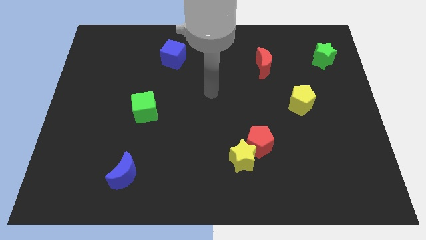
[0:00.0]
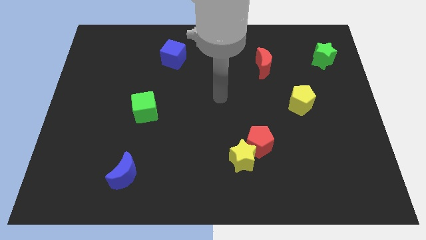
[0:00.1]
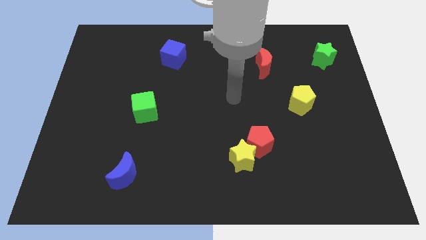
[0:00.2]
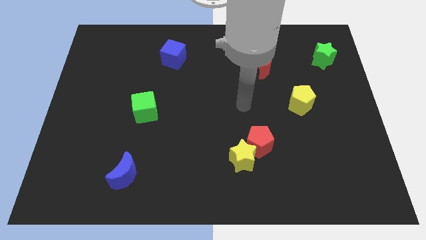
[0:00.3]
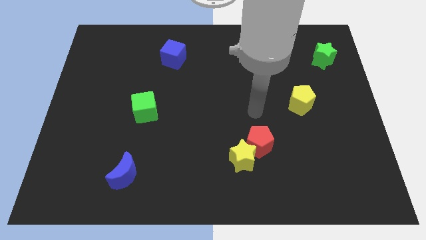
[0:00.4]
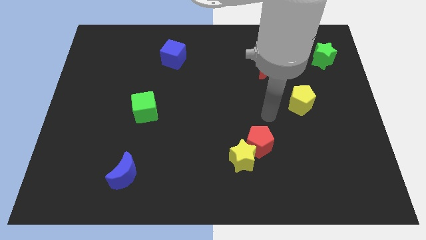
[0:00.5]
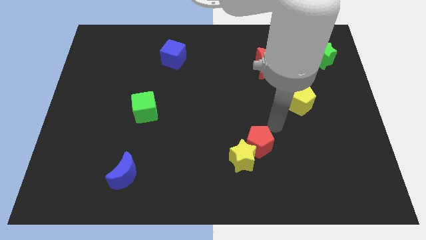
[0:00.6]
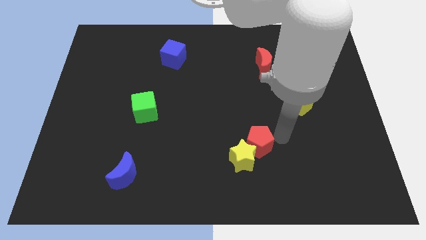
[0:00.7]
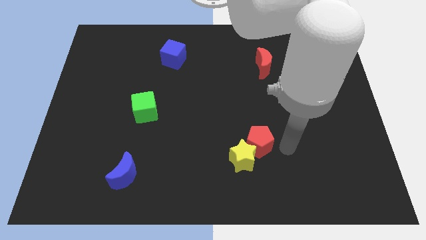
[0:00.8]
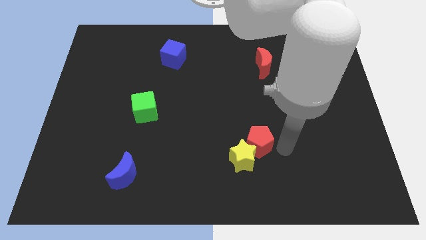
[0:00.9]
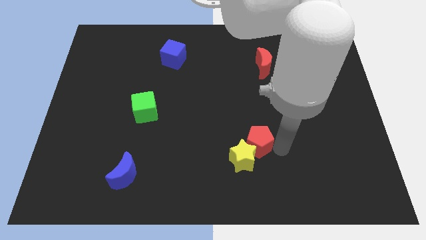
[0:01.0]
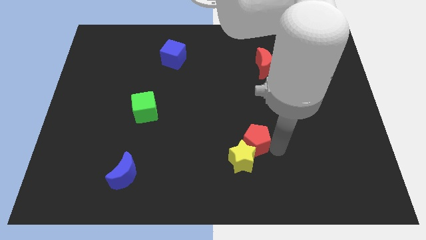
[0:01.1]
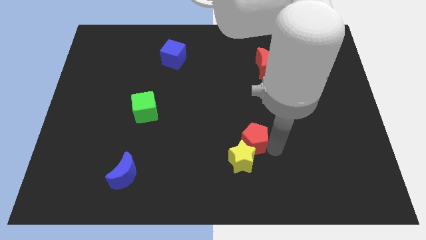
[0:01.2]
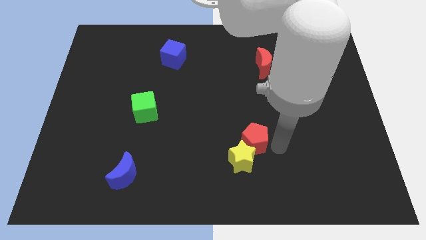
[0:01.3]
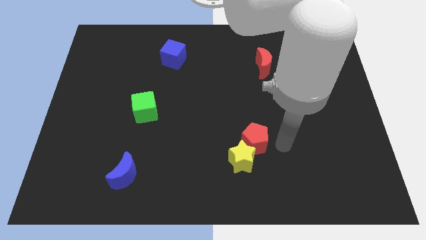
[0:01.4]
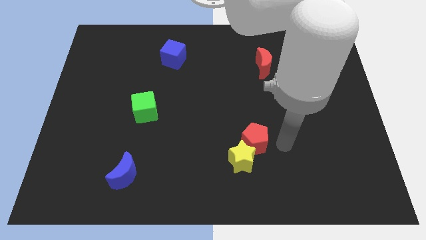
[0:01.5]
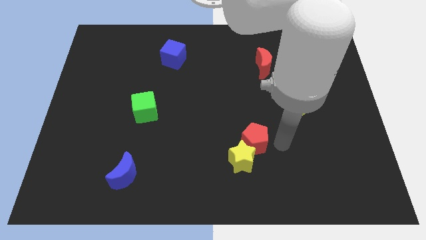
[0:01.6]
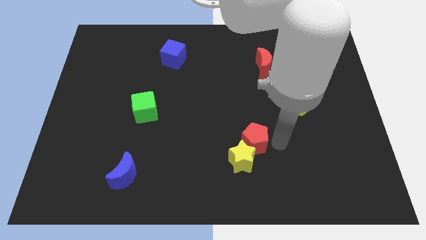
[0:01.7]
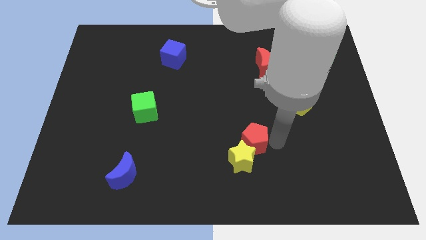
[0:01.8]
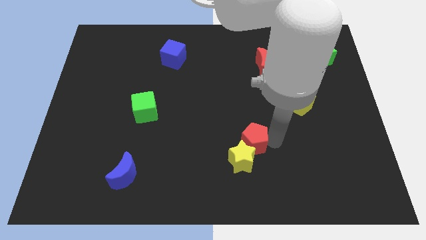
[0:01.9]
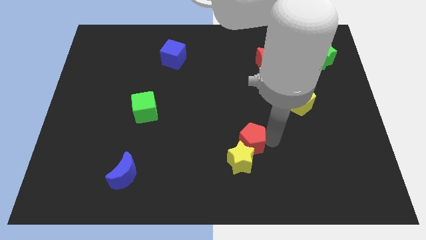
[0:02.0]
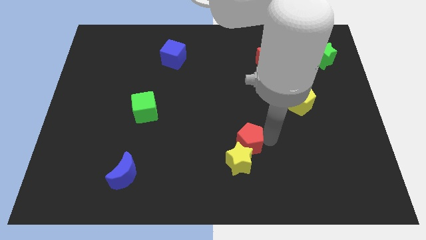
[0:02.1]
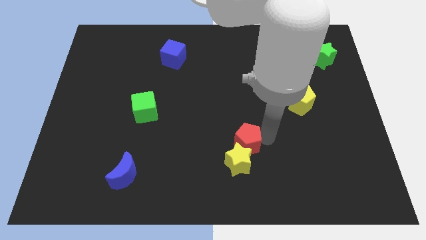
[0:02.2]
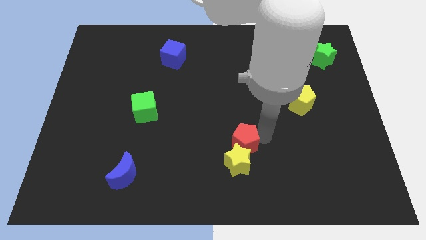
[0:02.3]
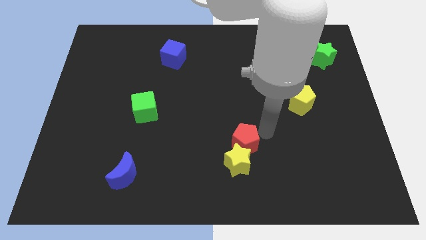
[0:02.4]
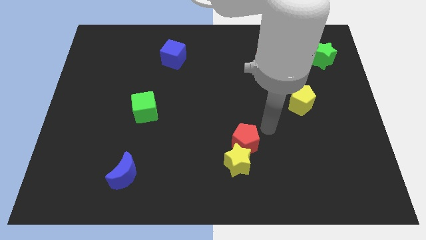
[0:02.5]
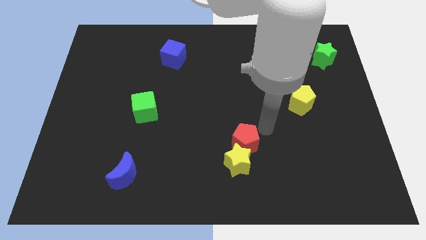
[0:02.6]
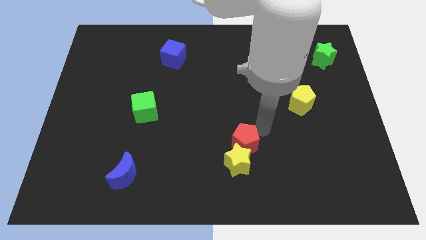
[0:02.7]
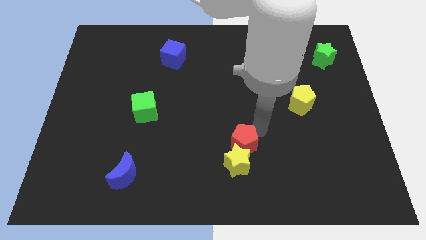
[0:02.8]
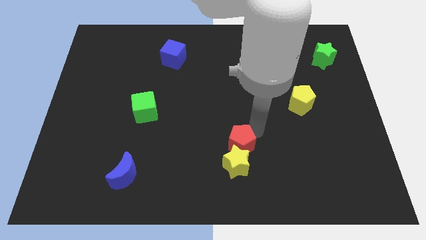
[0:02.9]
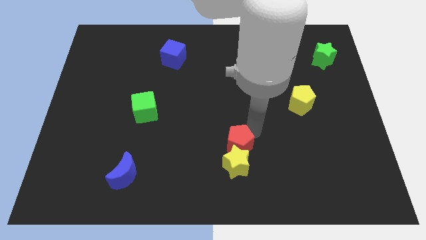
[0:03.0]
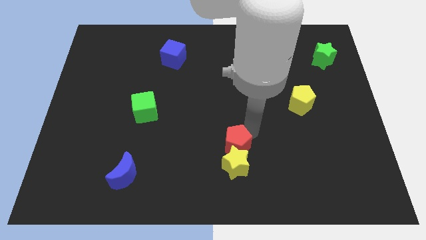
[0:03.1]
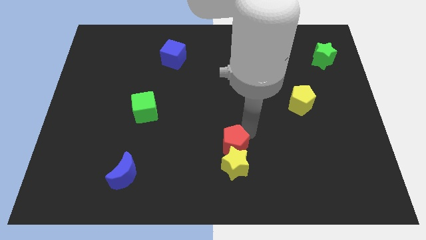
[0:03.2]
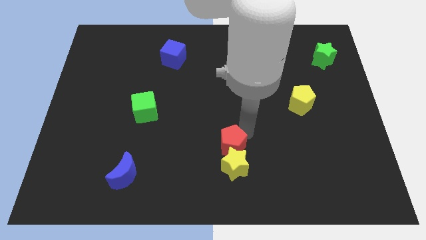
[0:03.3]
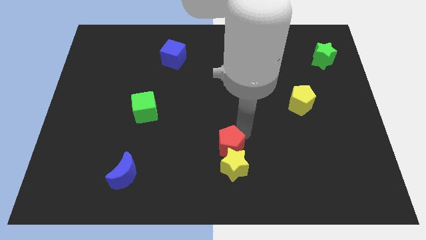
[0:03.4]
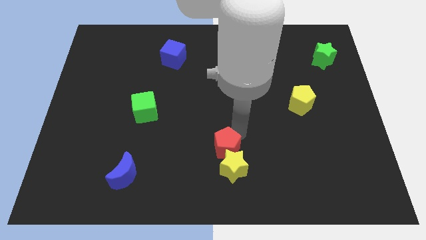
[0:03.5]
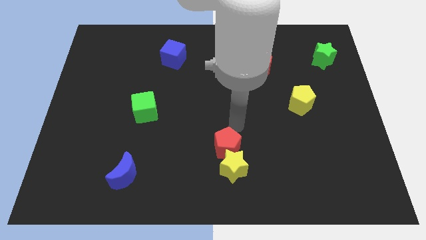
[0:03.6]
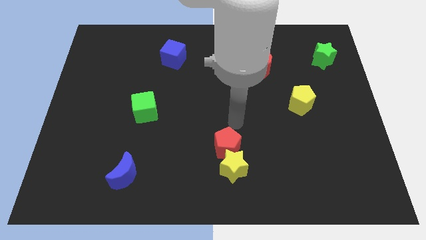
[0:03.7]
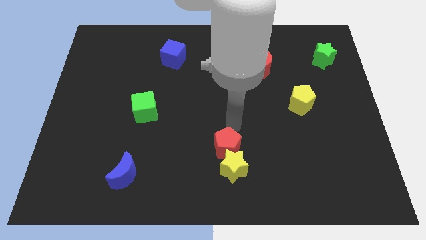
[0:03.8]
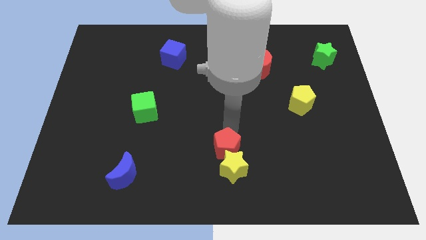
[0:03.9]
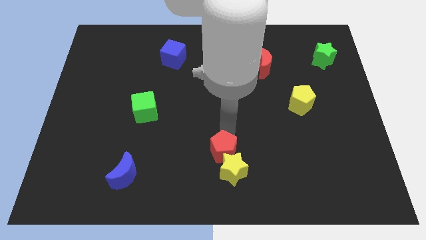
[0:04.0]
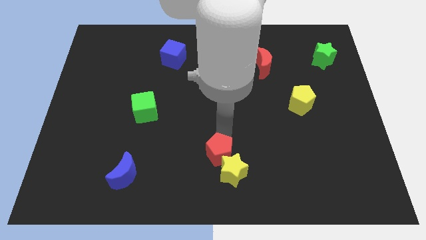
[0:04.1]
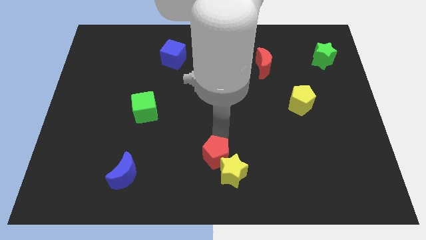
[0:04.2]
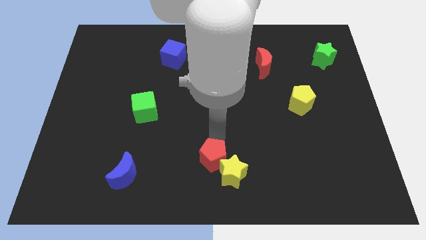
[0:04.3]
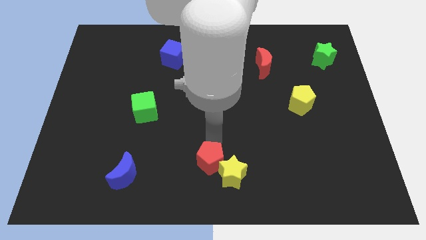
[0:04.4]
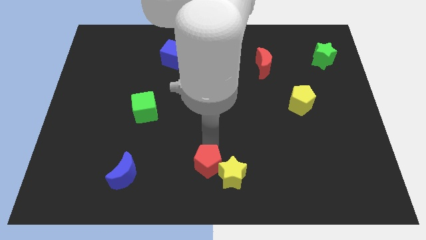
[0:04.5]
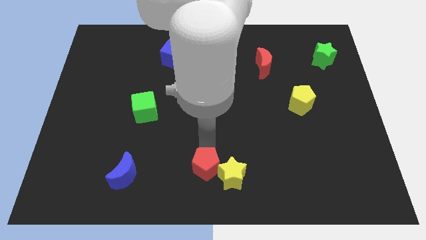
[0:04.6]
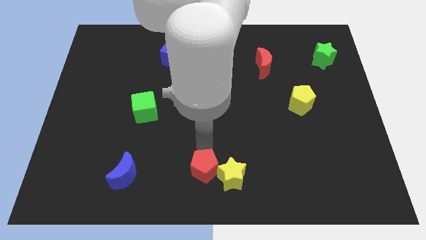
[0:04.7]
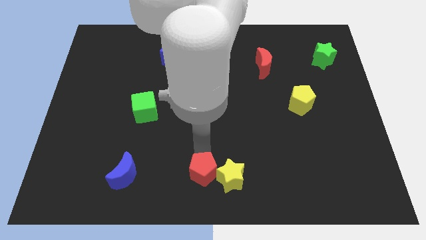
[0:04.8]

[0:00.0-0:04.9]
slide the red pentagon to the bottom left side of the yellow star

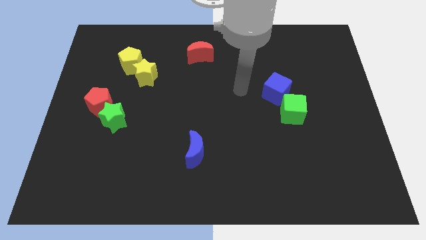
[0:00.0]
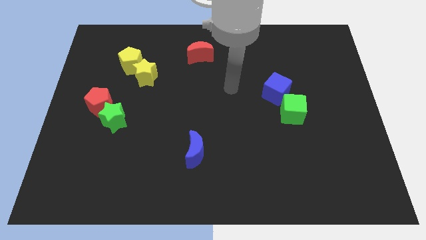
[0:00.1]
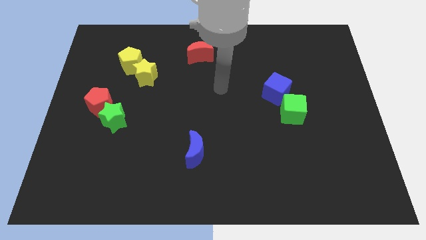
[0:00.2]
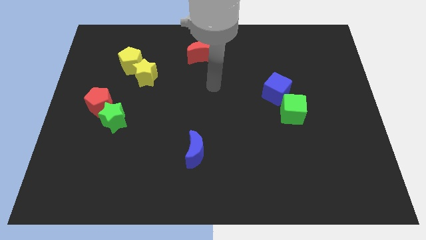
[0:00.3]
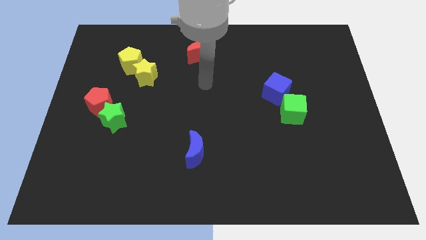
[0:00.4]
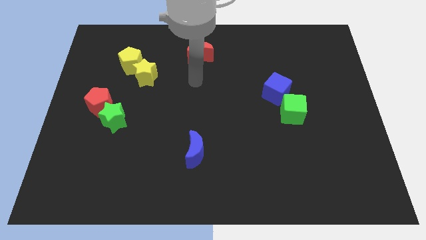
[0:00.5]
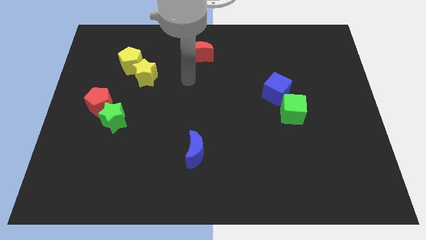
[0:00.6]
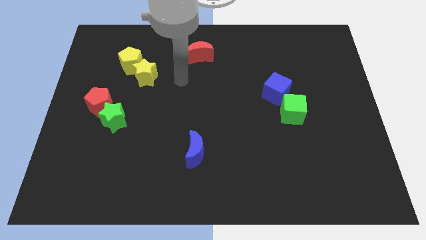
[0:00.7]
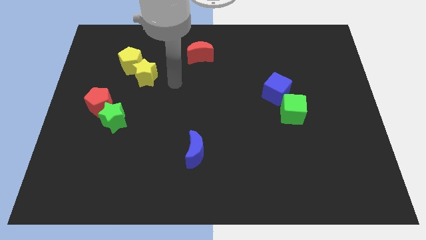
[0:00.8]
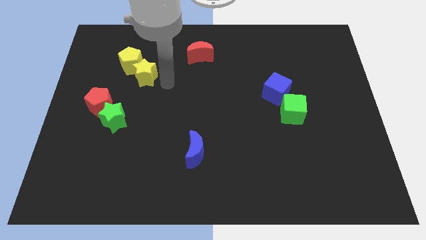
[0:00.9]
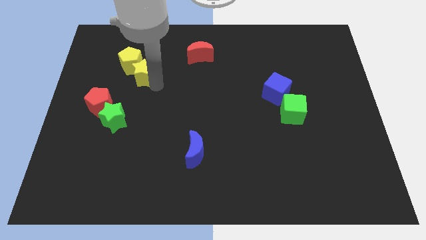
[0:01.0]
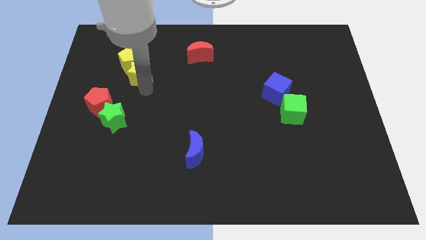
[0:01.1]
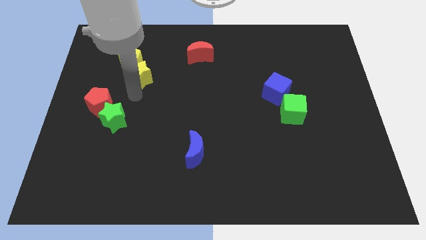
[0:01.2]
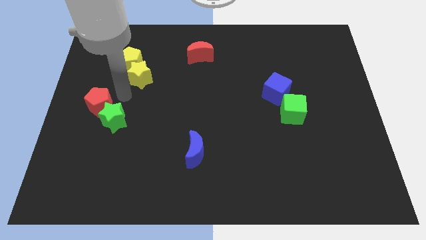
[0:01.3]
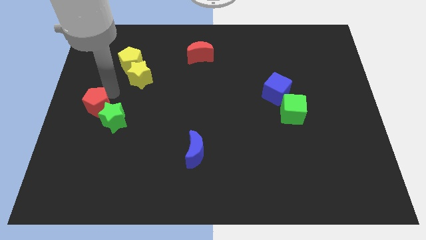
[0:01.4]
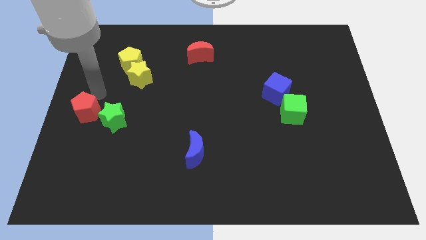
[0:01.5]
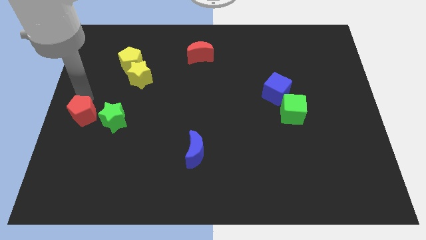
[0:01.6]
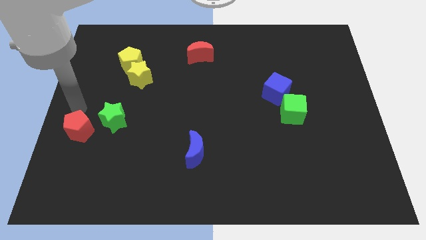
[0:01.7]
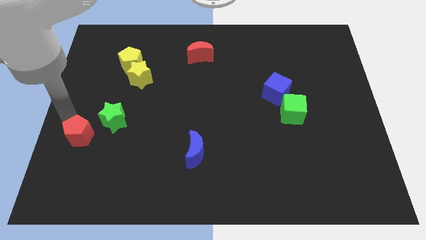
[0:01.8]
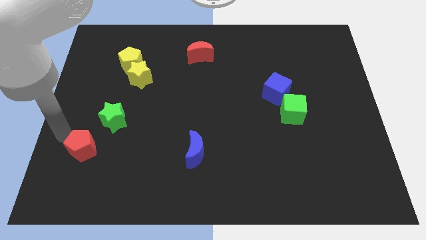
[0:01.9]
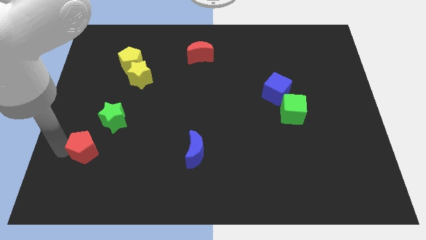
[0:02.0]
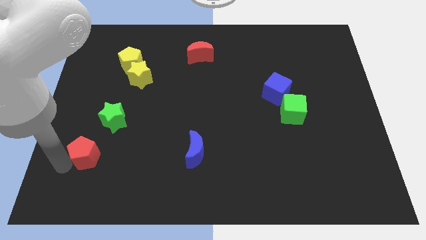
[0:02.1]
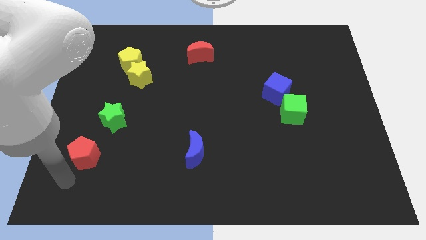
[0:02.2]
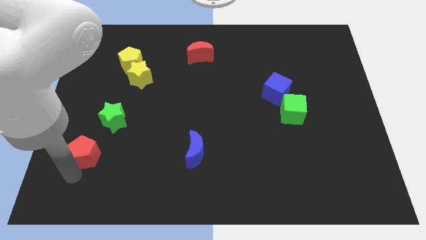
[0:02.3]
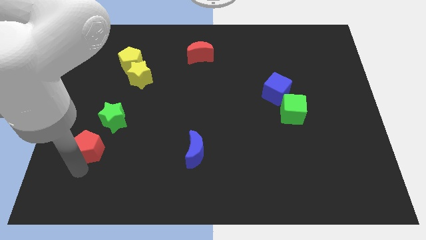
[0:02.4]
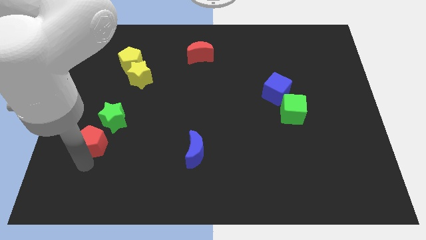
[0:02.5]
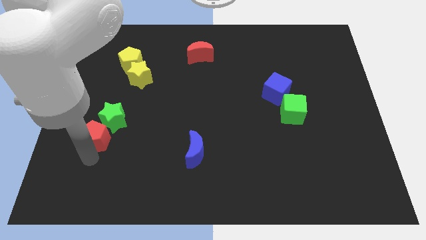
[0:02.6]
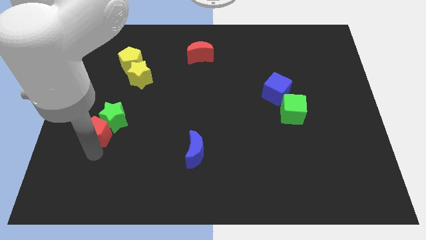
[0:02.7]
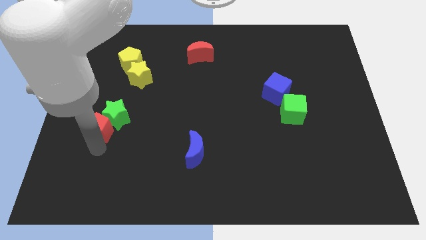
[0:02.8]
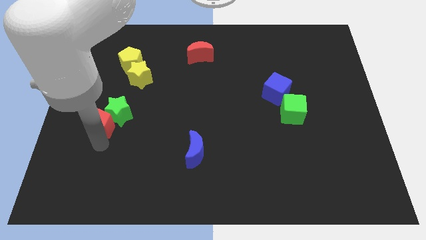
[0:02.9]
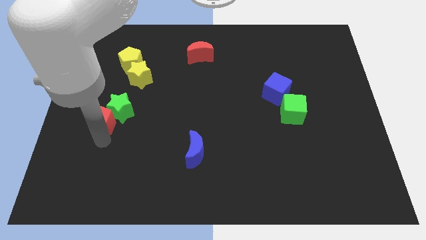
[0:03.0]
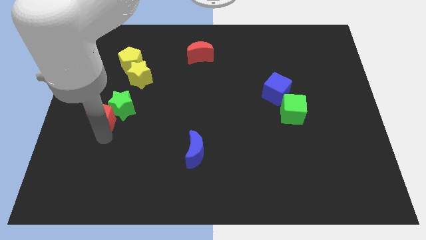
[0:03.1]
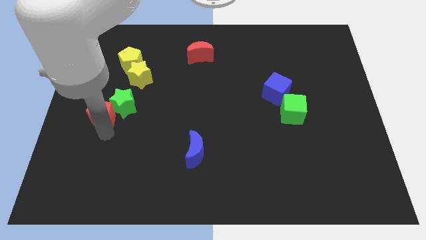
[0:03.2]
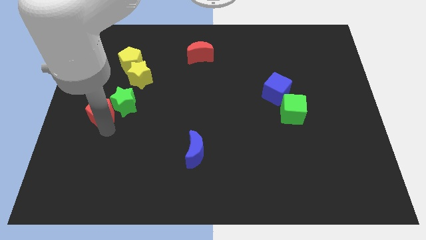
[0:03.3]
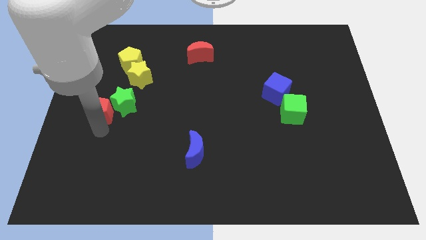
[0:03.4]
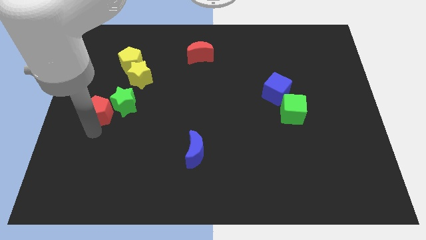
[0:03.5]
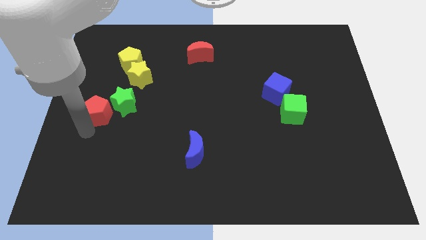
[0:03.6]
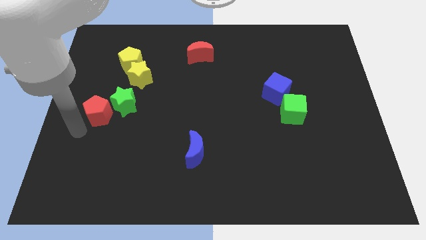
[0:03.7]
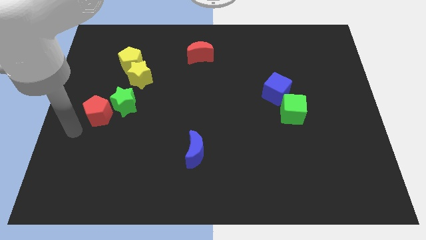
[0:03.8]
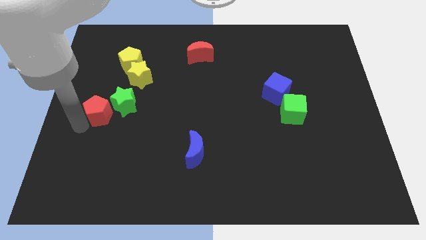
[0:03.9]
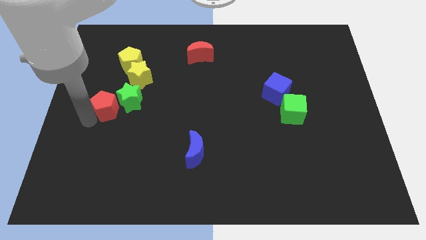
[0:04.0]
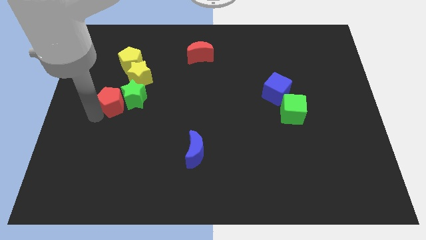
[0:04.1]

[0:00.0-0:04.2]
put the red pentagon to the bottom side of the yellow pentagon
